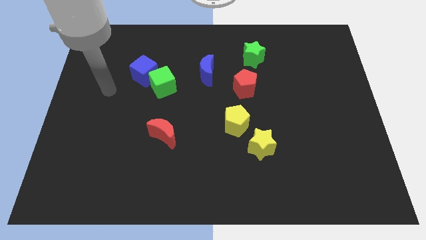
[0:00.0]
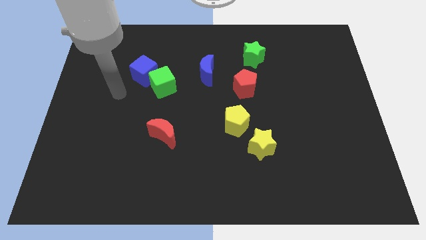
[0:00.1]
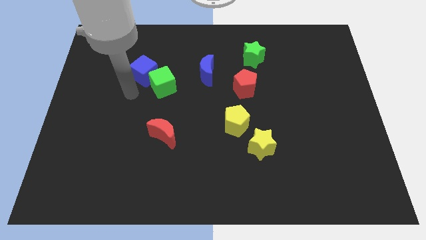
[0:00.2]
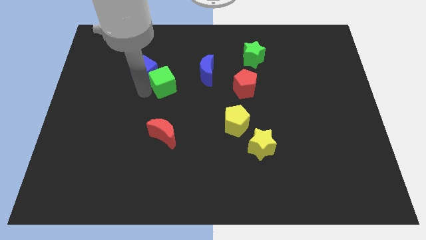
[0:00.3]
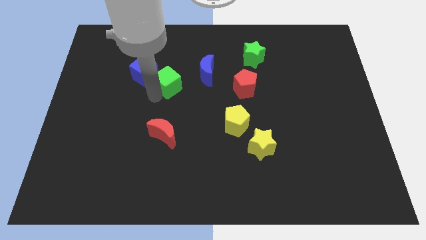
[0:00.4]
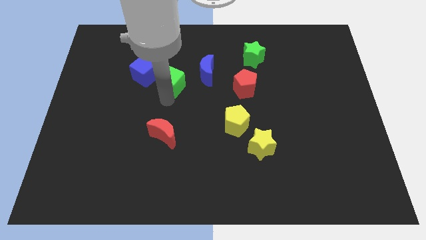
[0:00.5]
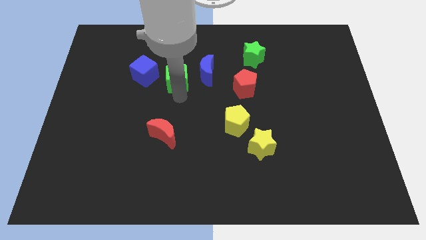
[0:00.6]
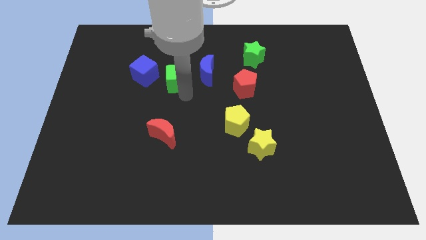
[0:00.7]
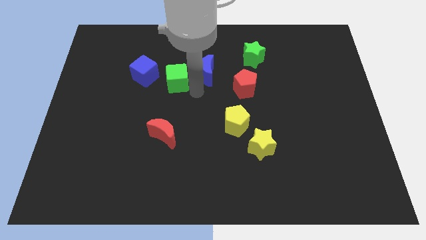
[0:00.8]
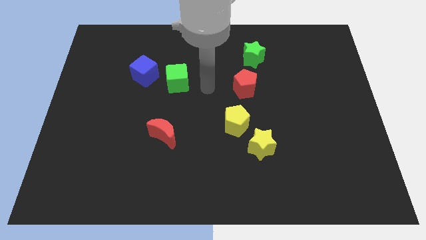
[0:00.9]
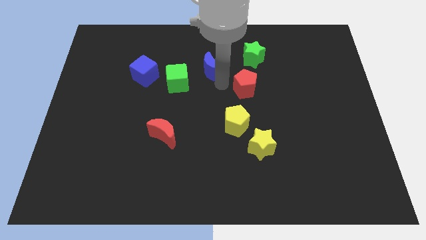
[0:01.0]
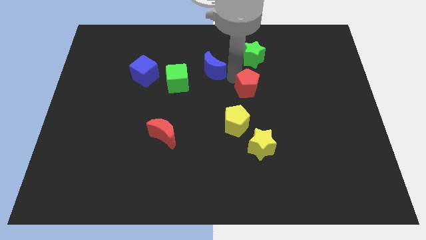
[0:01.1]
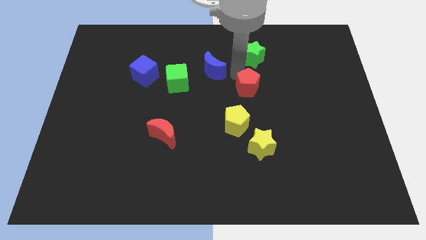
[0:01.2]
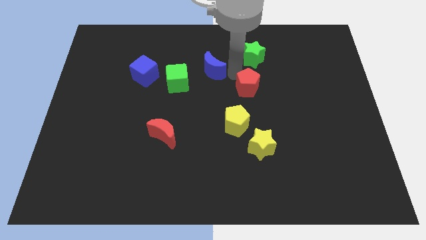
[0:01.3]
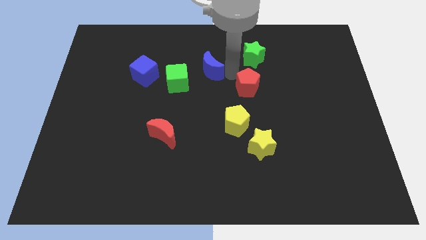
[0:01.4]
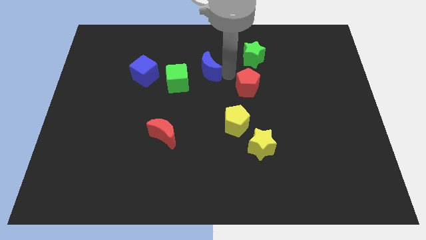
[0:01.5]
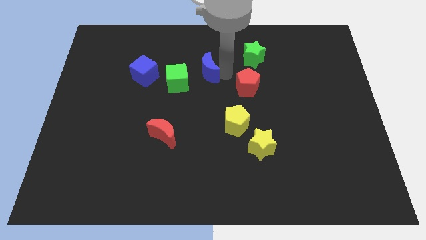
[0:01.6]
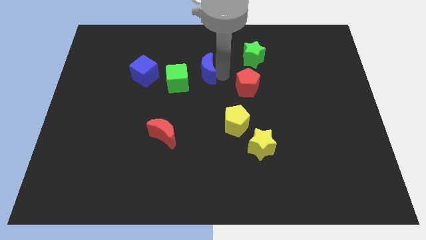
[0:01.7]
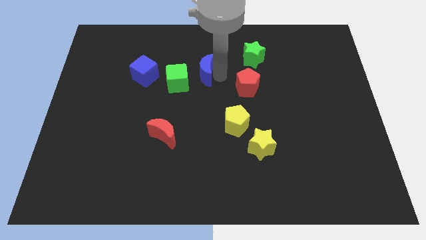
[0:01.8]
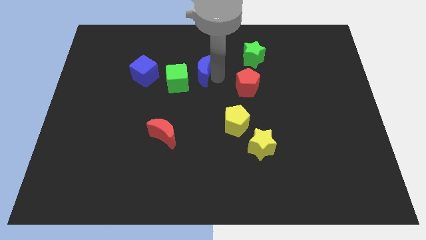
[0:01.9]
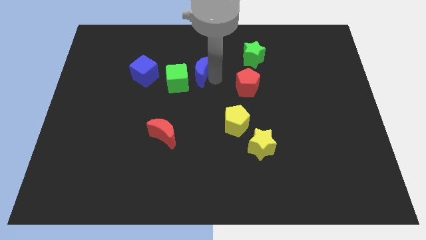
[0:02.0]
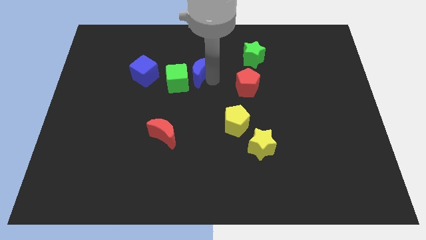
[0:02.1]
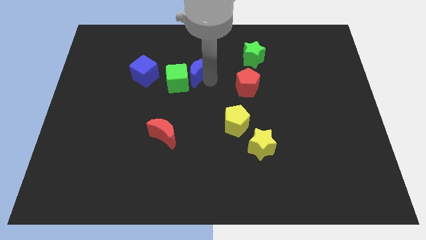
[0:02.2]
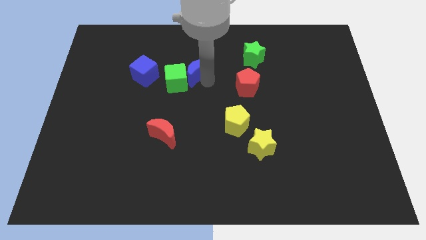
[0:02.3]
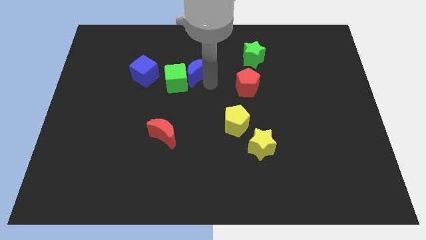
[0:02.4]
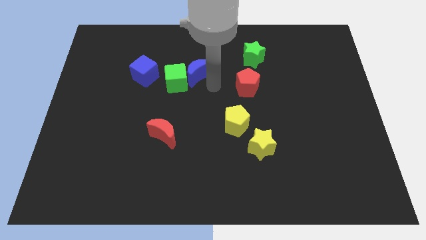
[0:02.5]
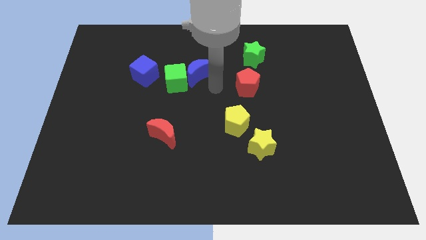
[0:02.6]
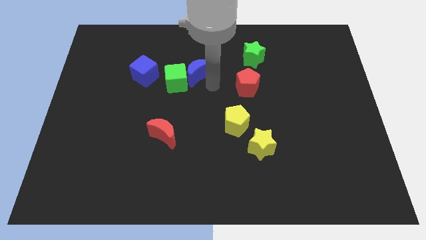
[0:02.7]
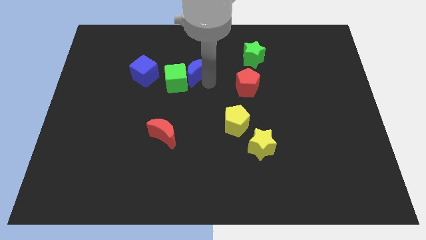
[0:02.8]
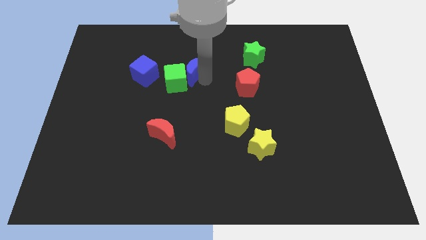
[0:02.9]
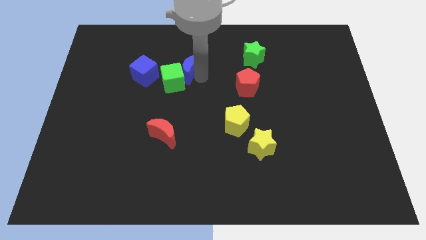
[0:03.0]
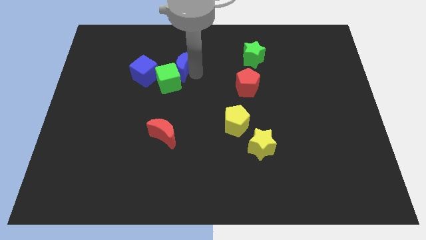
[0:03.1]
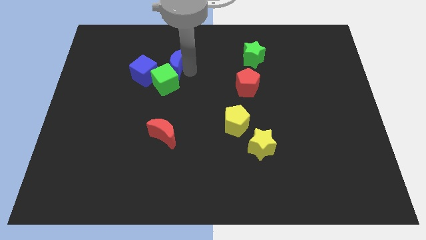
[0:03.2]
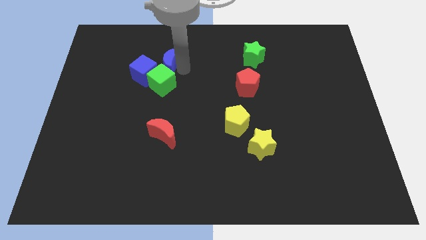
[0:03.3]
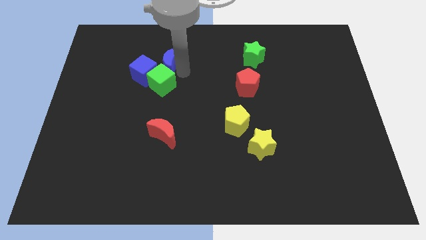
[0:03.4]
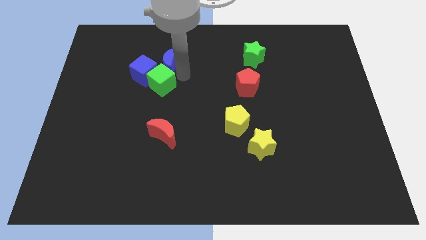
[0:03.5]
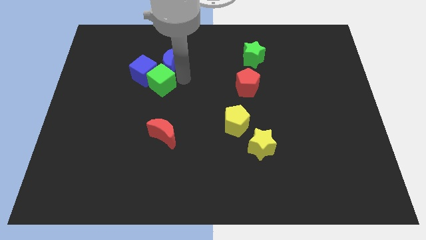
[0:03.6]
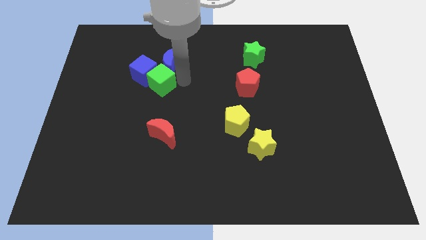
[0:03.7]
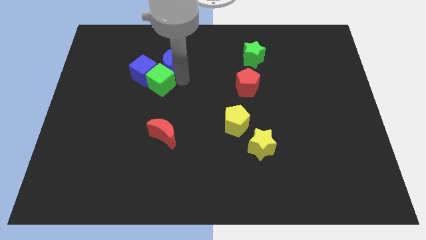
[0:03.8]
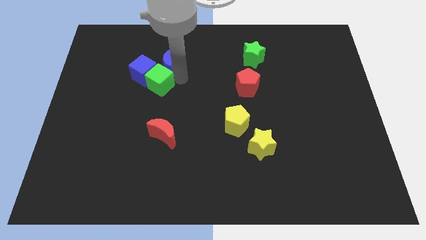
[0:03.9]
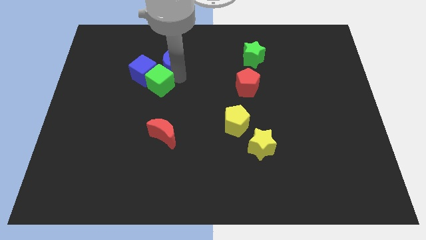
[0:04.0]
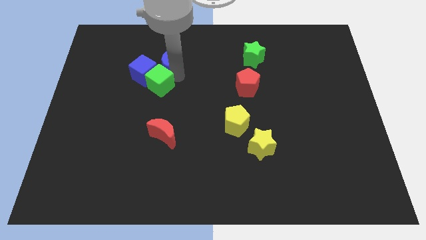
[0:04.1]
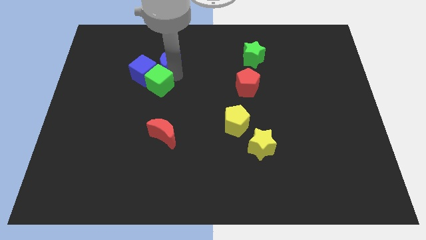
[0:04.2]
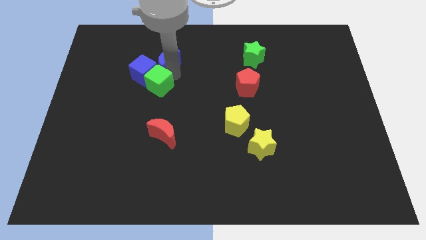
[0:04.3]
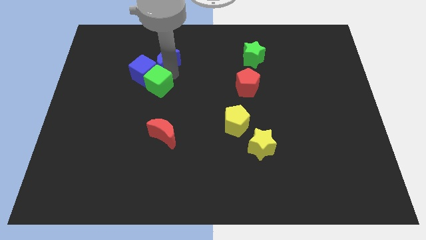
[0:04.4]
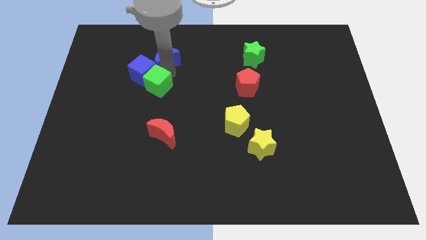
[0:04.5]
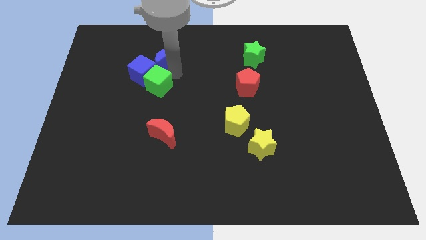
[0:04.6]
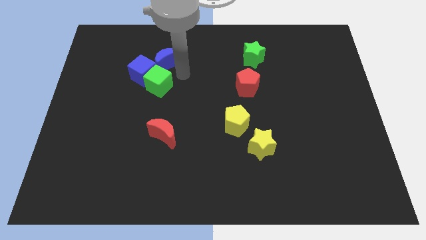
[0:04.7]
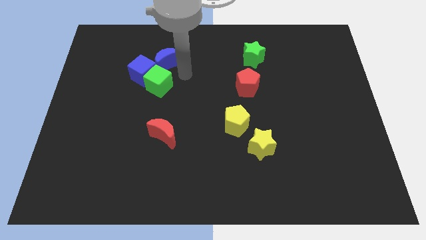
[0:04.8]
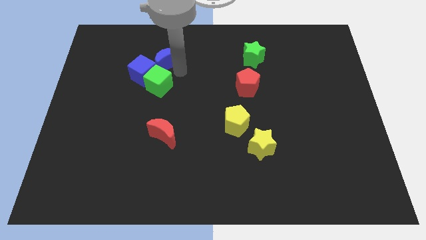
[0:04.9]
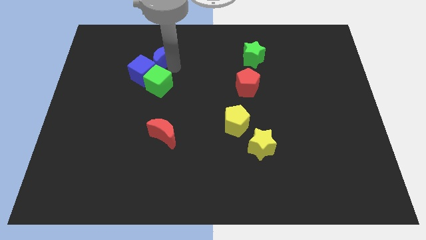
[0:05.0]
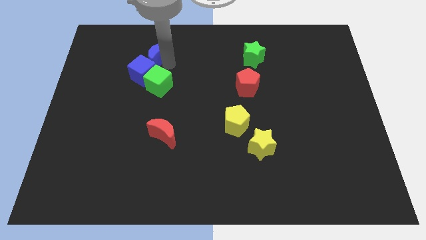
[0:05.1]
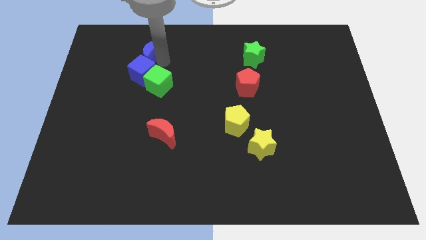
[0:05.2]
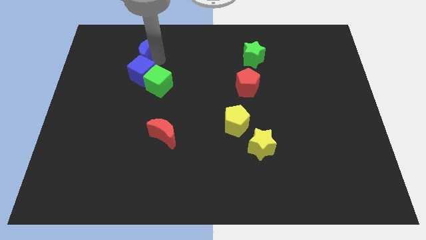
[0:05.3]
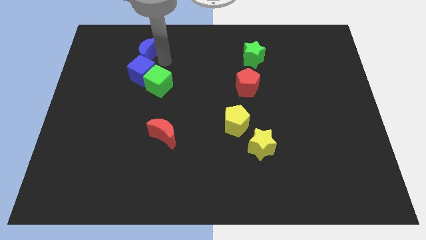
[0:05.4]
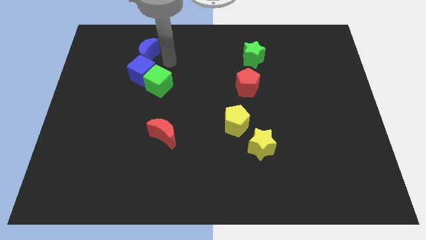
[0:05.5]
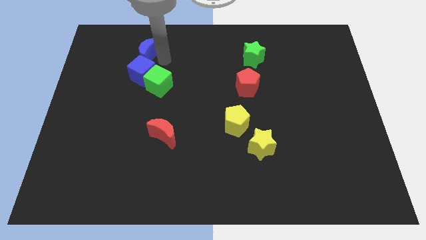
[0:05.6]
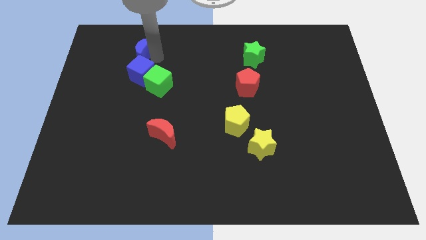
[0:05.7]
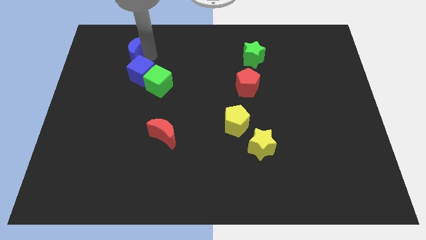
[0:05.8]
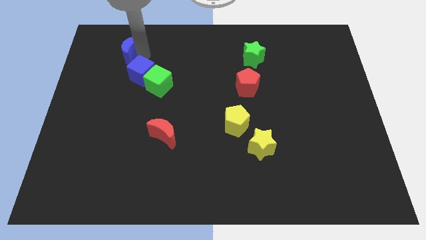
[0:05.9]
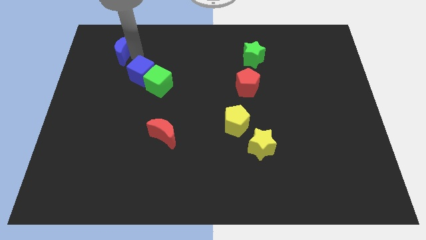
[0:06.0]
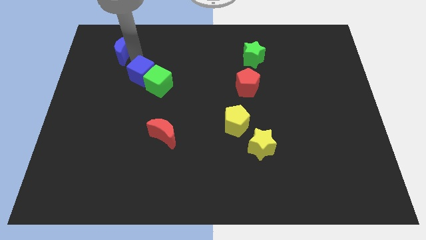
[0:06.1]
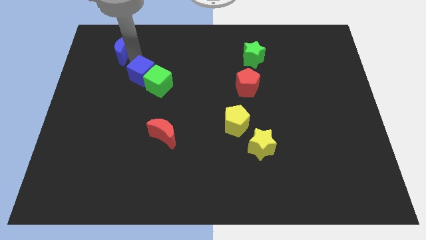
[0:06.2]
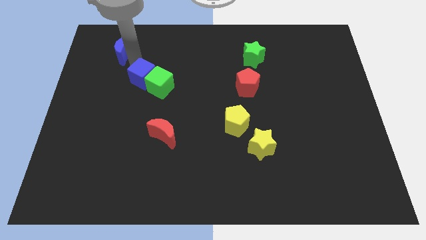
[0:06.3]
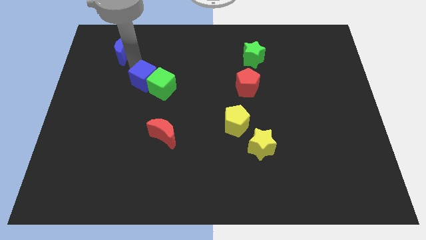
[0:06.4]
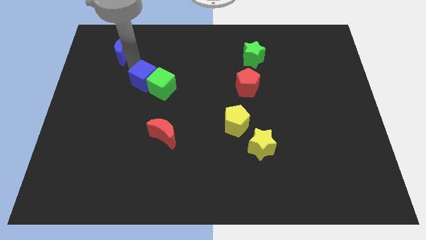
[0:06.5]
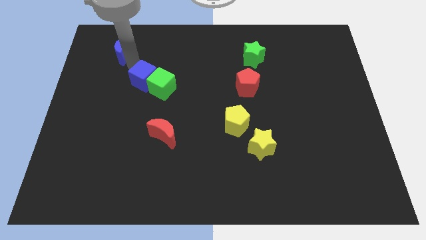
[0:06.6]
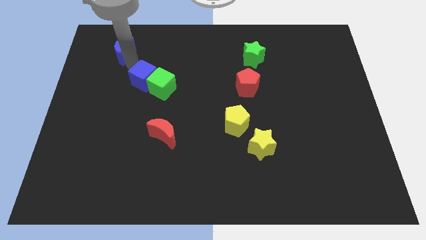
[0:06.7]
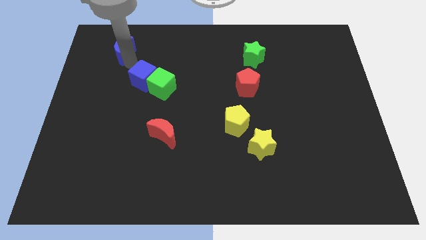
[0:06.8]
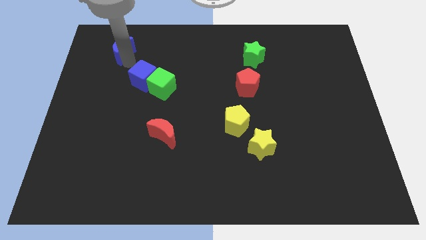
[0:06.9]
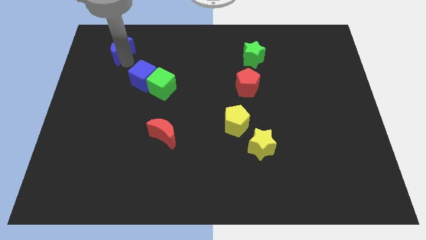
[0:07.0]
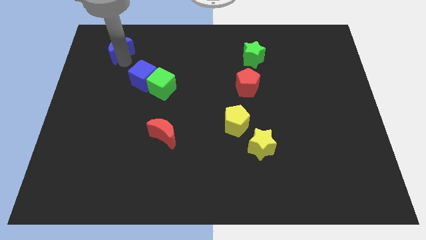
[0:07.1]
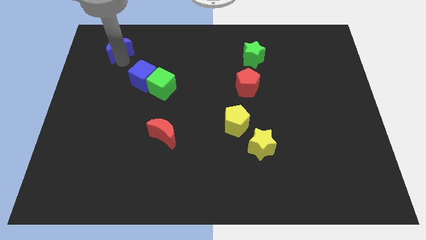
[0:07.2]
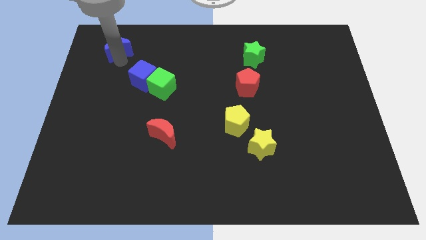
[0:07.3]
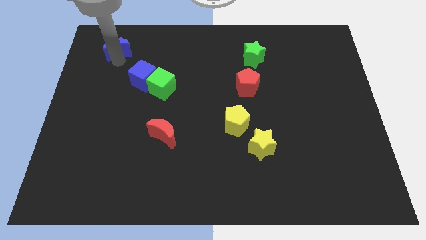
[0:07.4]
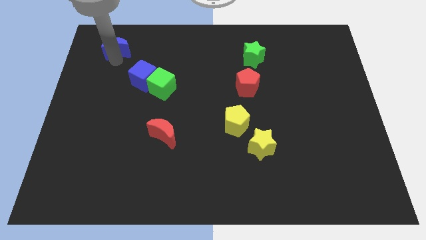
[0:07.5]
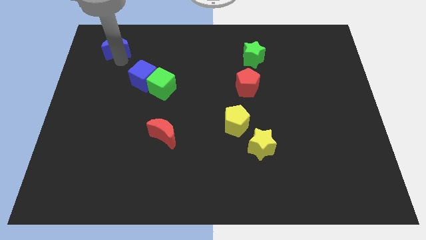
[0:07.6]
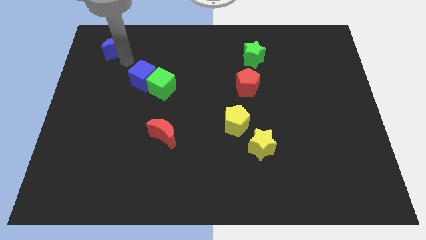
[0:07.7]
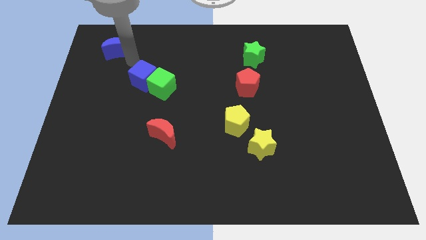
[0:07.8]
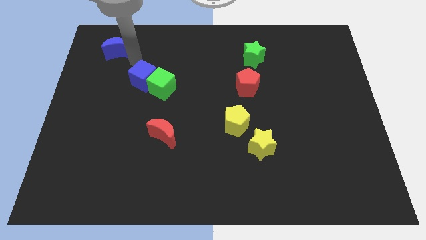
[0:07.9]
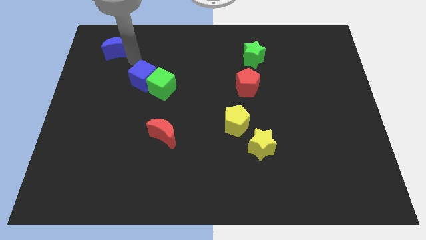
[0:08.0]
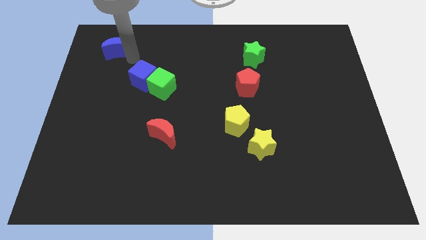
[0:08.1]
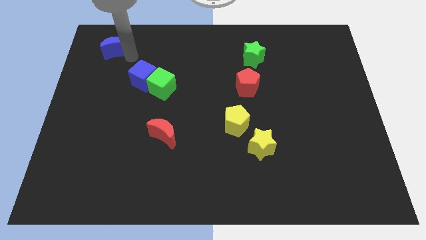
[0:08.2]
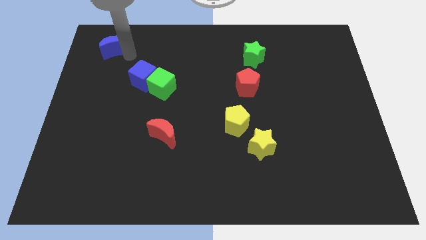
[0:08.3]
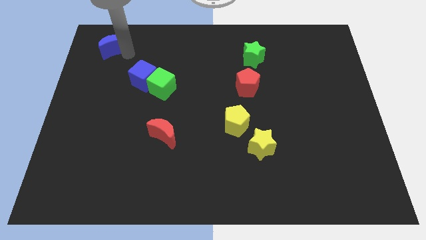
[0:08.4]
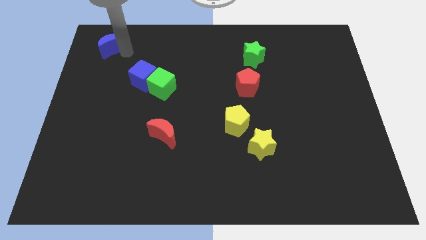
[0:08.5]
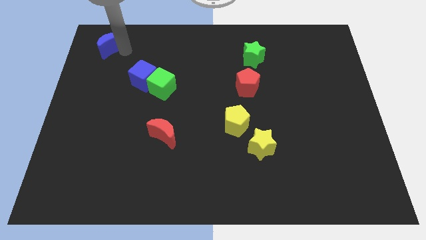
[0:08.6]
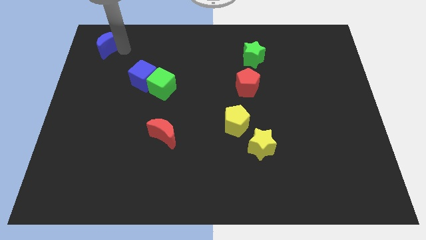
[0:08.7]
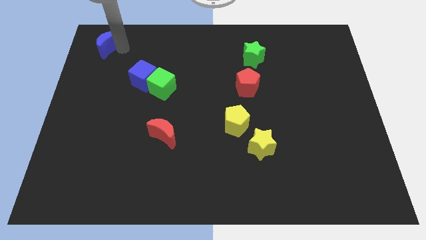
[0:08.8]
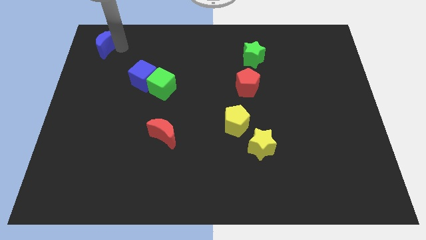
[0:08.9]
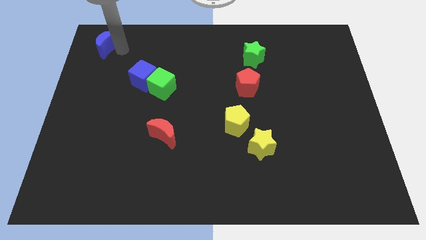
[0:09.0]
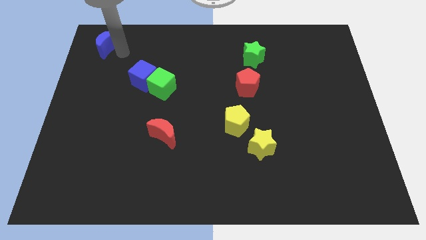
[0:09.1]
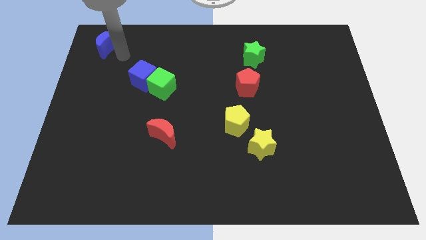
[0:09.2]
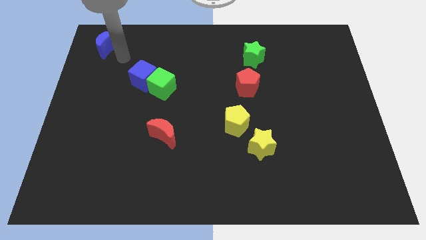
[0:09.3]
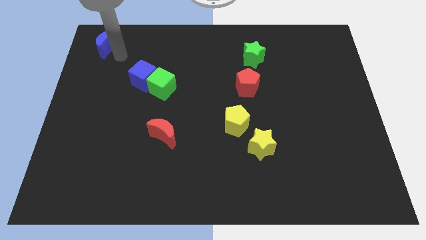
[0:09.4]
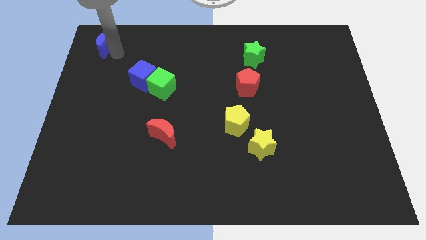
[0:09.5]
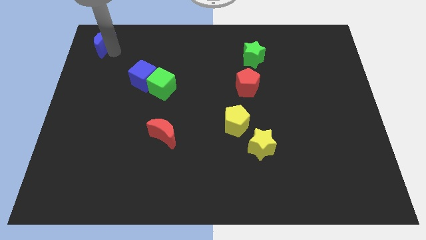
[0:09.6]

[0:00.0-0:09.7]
slide the blue moon to the top left corner
